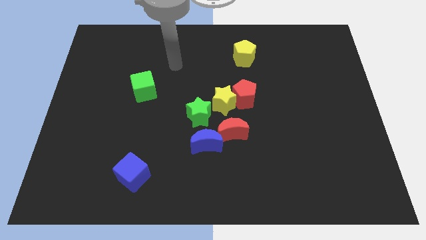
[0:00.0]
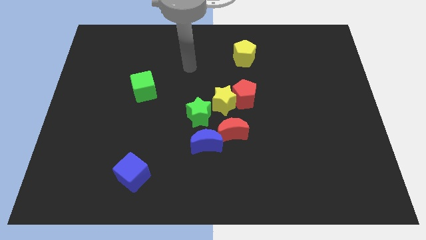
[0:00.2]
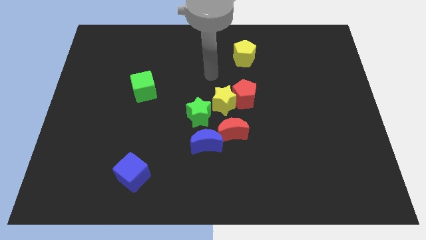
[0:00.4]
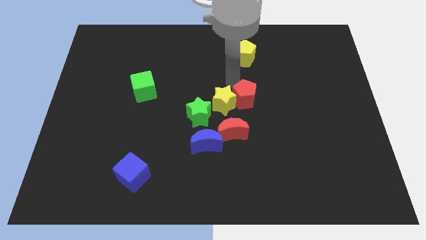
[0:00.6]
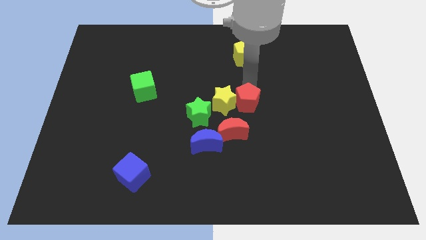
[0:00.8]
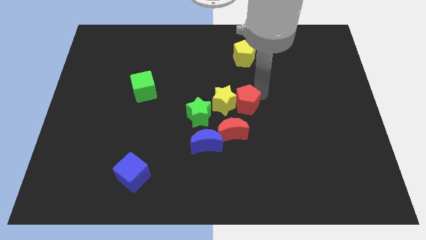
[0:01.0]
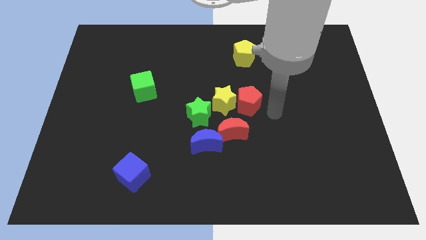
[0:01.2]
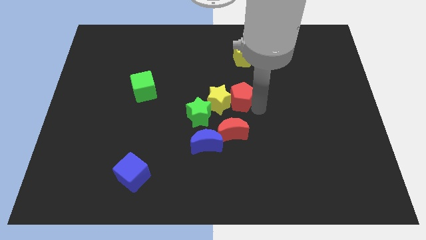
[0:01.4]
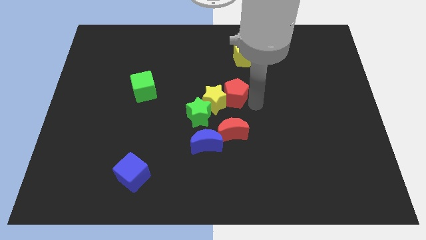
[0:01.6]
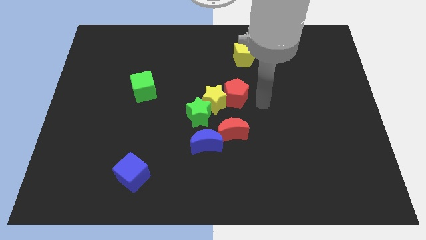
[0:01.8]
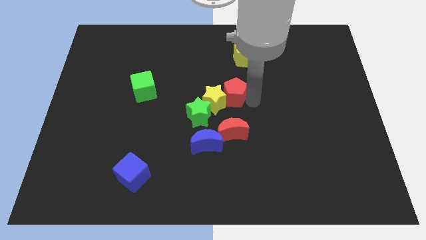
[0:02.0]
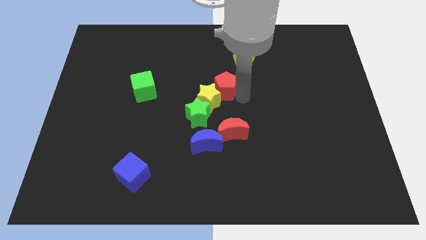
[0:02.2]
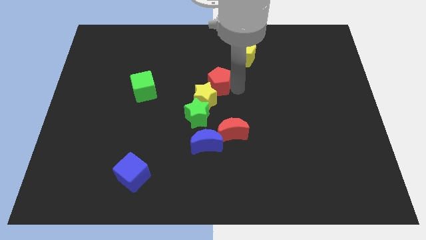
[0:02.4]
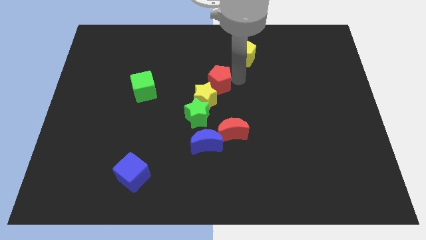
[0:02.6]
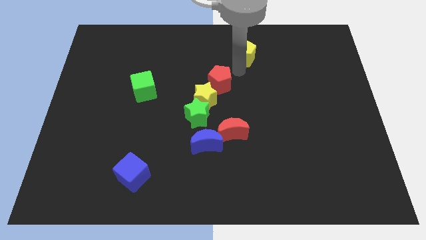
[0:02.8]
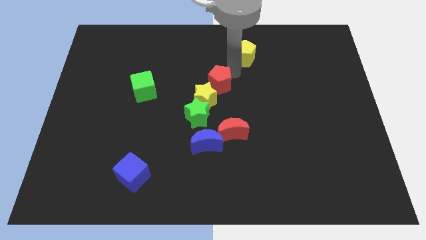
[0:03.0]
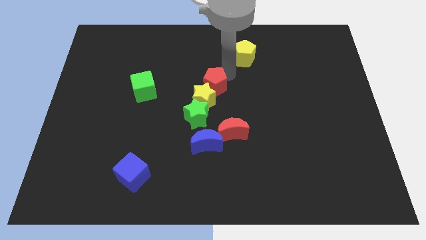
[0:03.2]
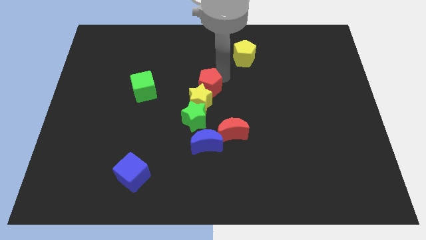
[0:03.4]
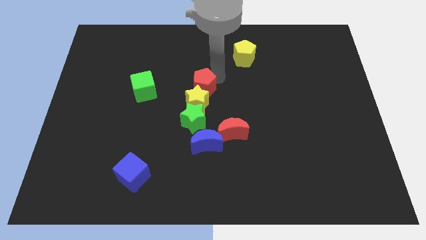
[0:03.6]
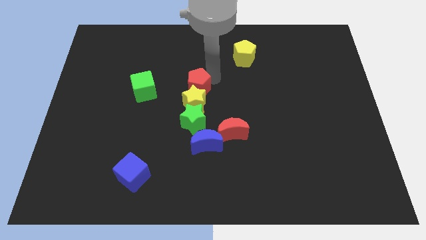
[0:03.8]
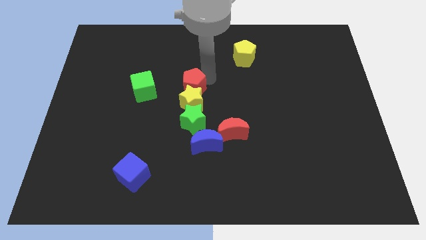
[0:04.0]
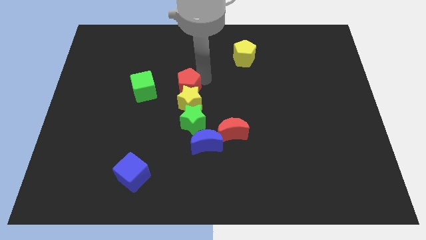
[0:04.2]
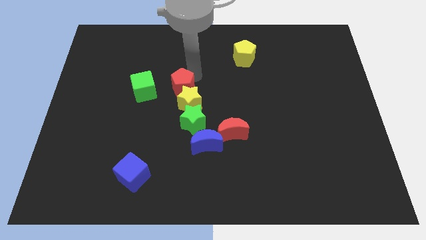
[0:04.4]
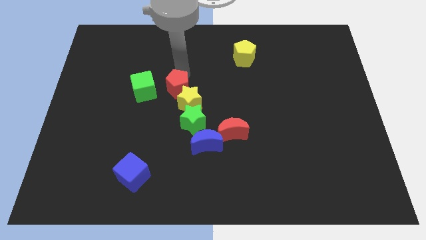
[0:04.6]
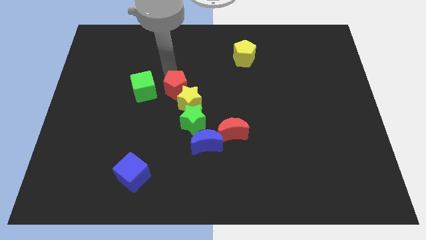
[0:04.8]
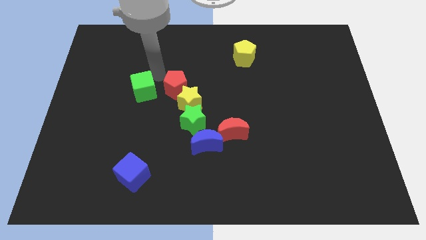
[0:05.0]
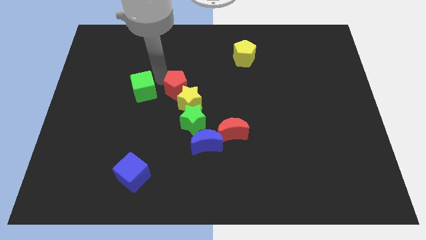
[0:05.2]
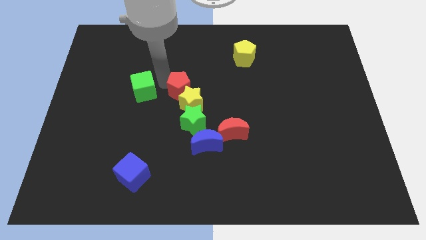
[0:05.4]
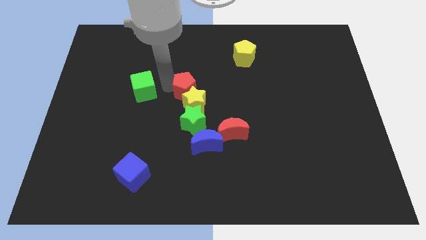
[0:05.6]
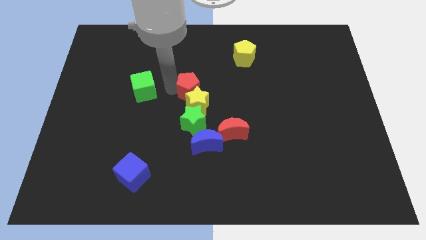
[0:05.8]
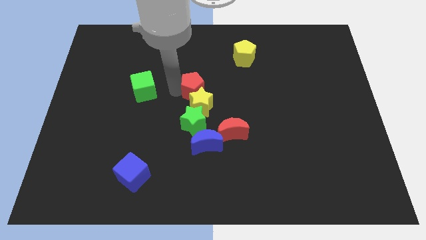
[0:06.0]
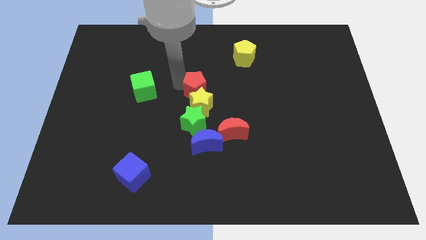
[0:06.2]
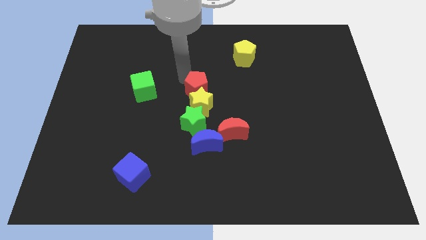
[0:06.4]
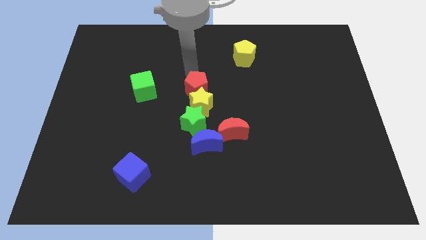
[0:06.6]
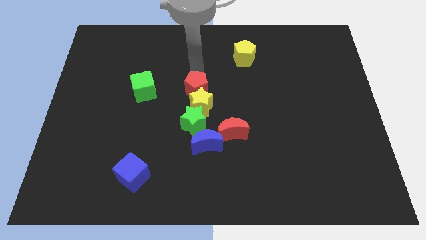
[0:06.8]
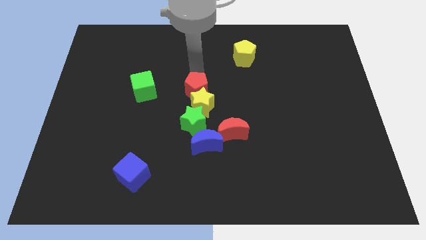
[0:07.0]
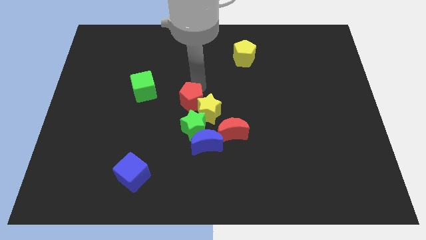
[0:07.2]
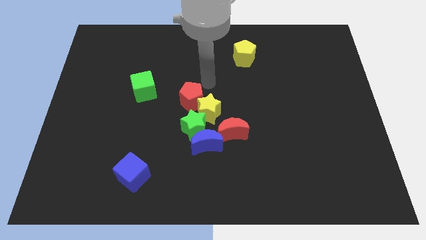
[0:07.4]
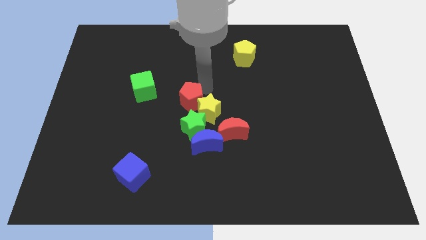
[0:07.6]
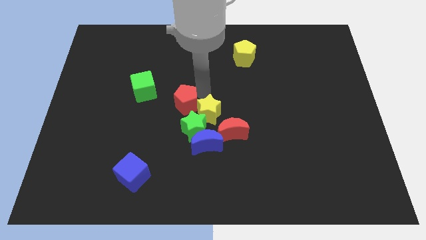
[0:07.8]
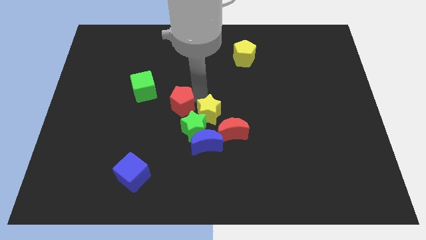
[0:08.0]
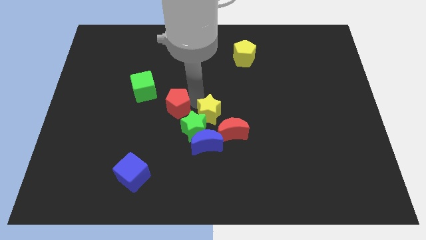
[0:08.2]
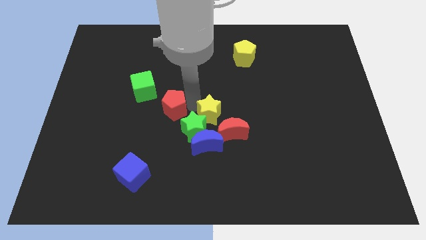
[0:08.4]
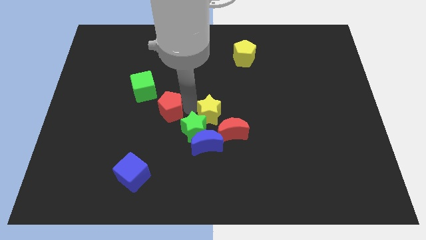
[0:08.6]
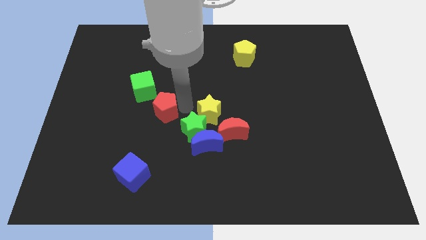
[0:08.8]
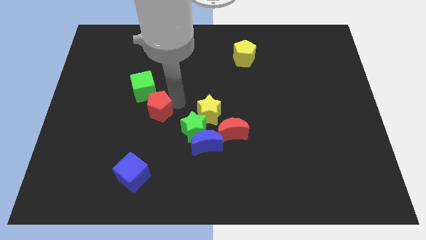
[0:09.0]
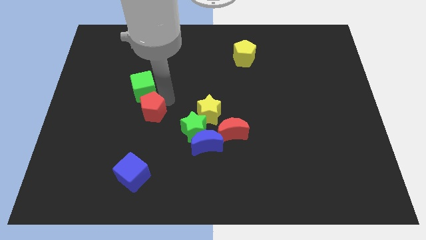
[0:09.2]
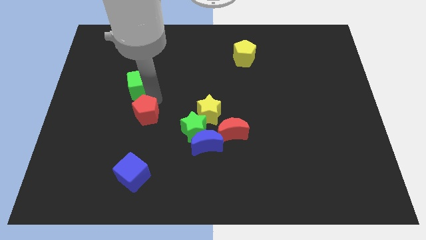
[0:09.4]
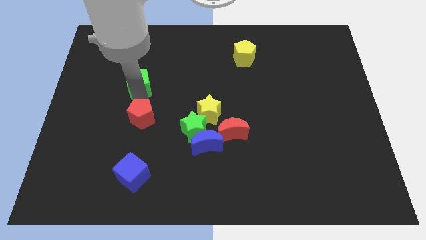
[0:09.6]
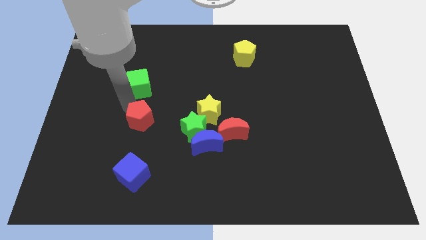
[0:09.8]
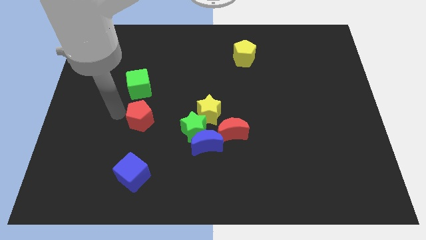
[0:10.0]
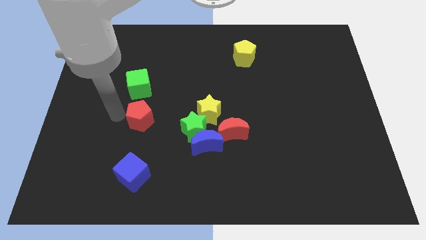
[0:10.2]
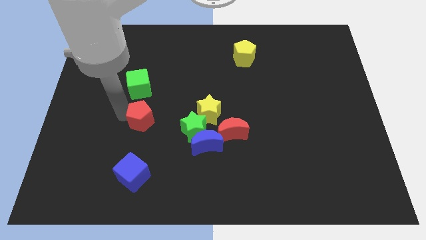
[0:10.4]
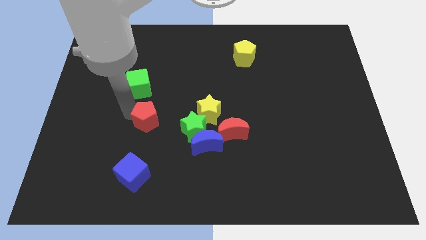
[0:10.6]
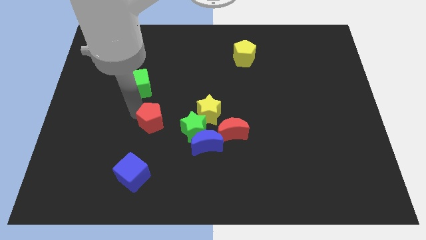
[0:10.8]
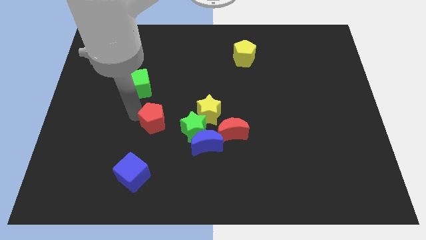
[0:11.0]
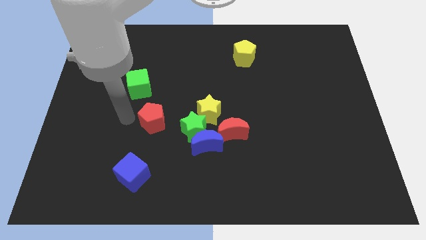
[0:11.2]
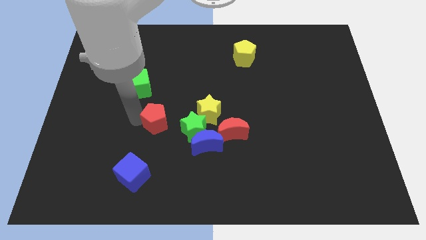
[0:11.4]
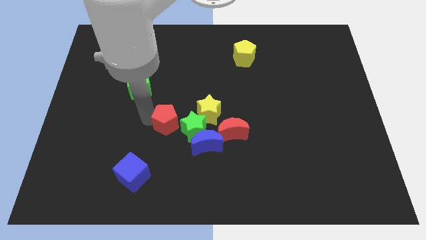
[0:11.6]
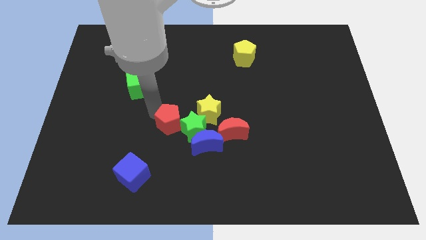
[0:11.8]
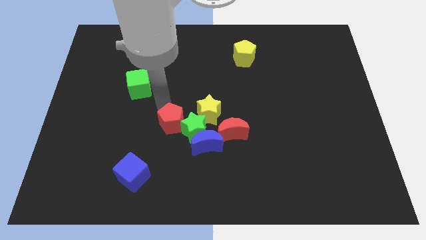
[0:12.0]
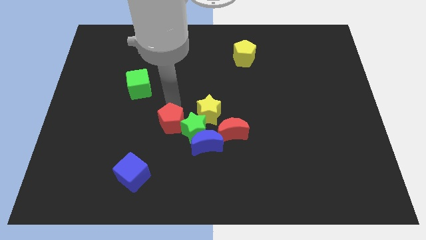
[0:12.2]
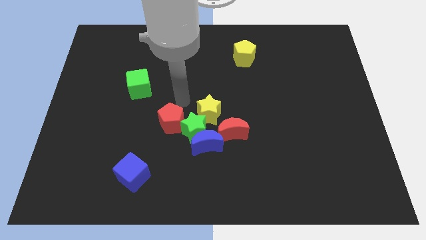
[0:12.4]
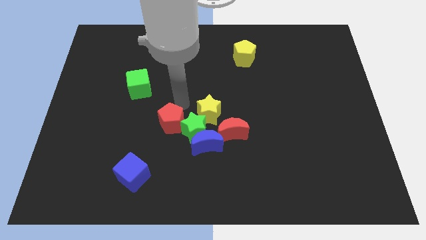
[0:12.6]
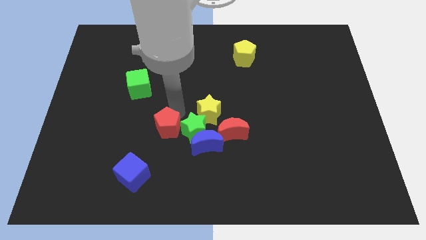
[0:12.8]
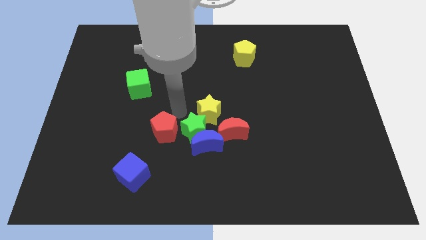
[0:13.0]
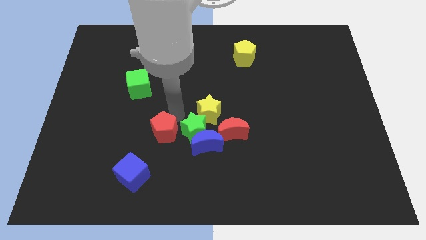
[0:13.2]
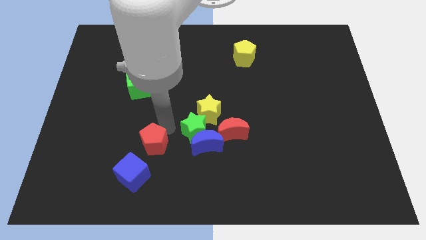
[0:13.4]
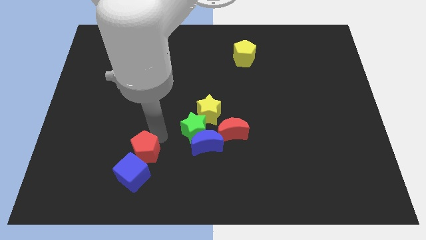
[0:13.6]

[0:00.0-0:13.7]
move the red pentagon next to the blue cube
